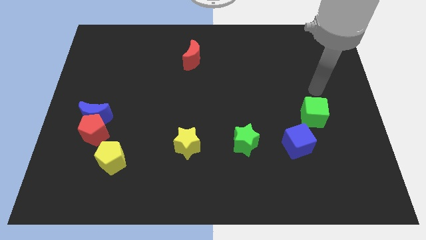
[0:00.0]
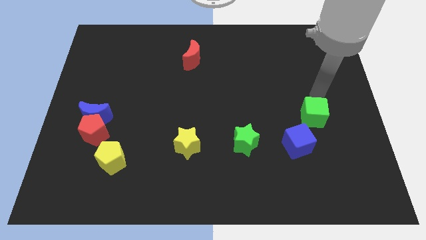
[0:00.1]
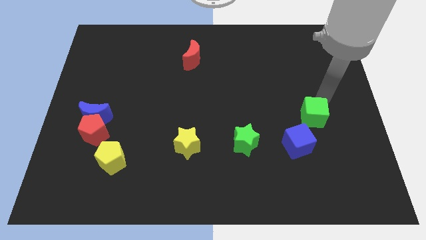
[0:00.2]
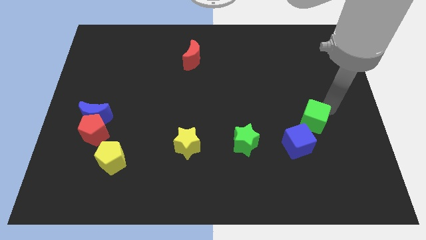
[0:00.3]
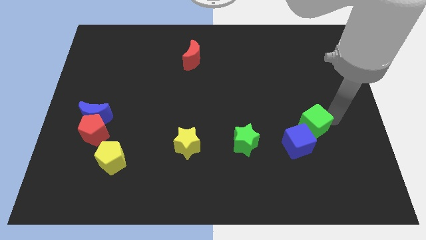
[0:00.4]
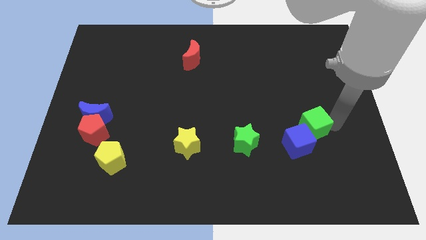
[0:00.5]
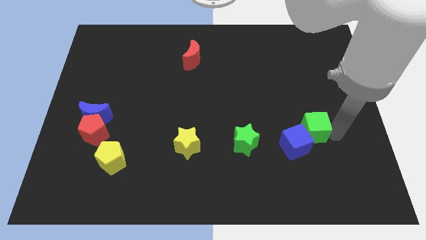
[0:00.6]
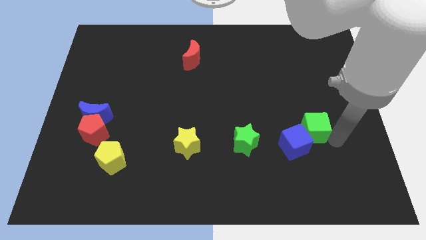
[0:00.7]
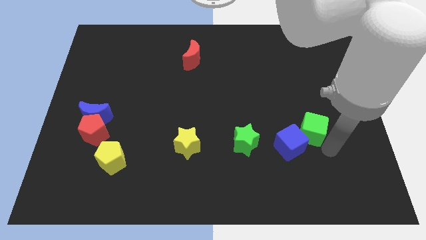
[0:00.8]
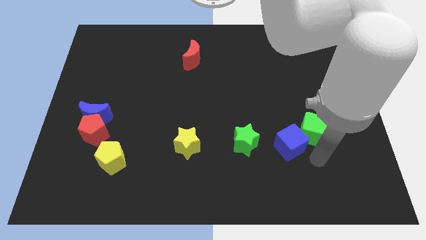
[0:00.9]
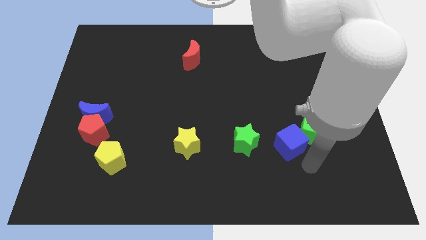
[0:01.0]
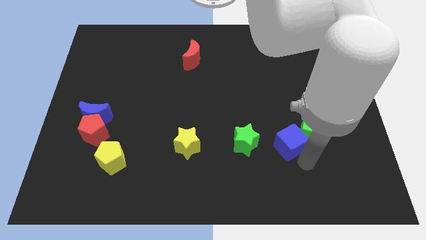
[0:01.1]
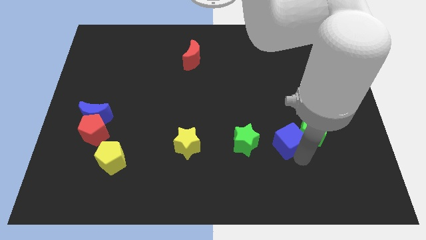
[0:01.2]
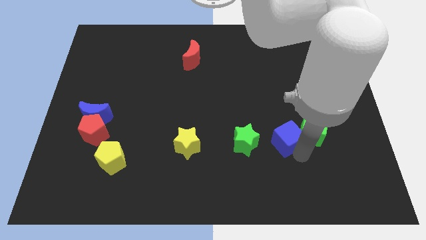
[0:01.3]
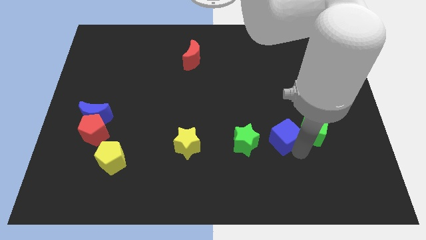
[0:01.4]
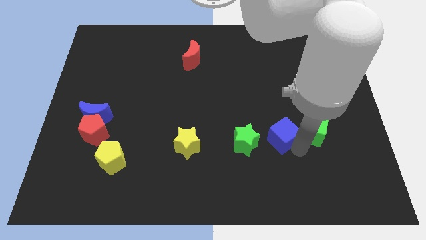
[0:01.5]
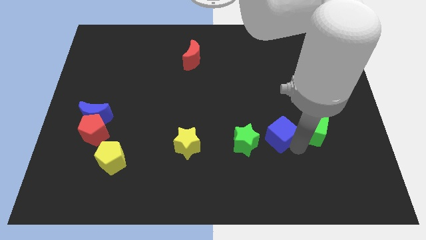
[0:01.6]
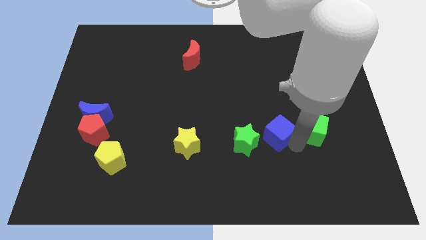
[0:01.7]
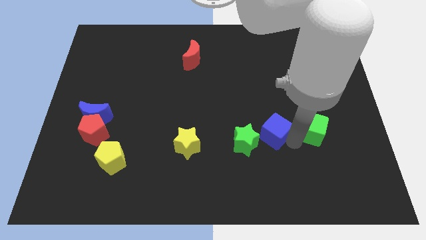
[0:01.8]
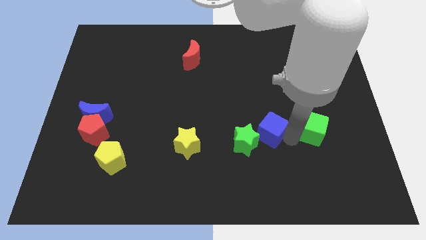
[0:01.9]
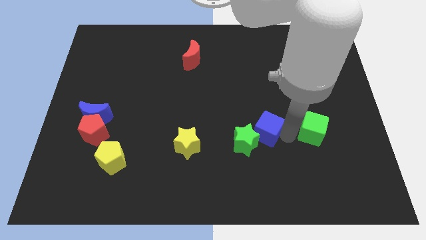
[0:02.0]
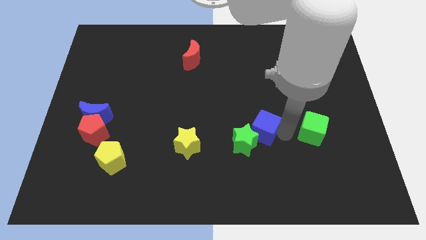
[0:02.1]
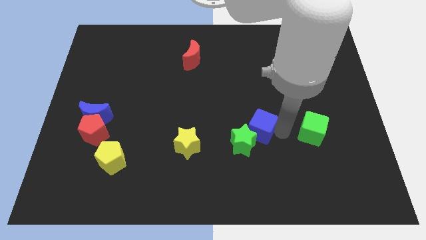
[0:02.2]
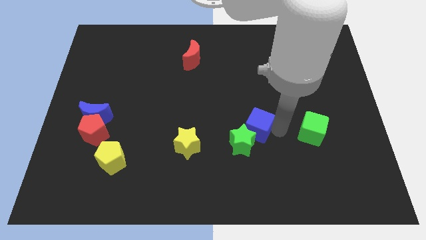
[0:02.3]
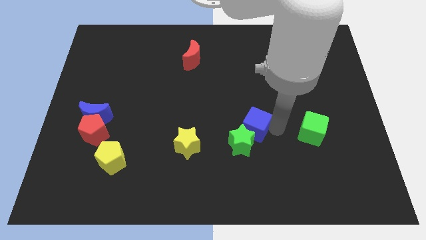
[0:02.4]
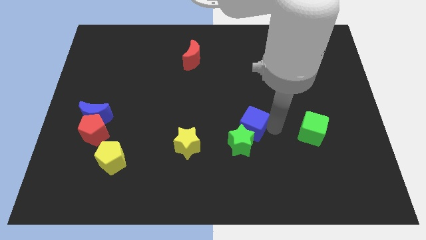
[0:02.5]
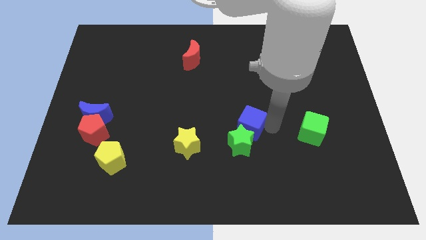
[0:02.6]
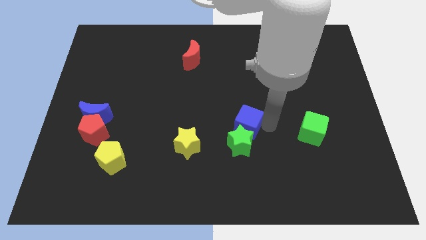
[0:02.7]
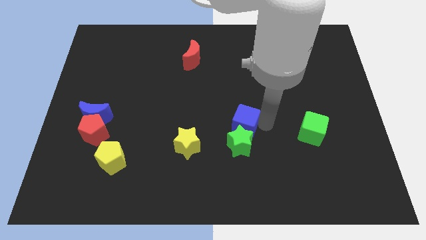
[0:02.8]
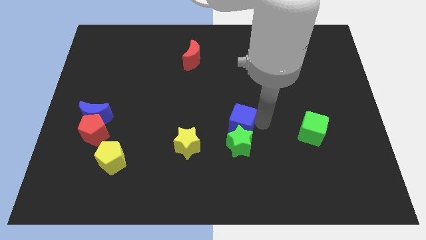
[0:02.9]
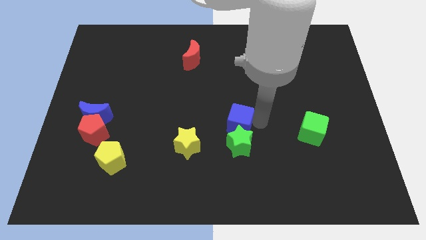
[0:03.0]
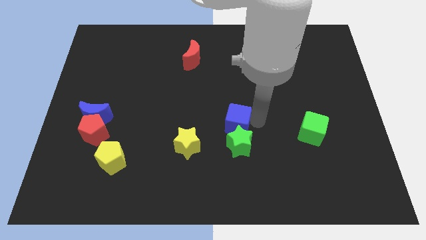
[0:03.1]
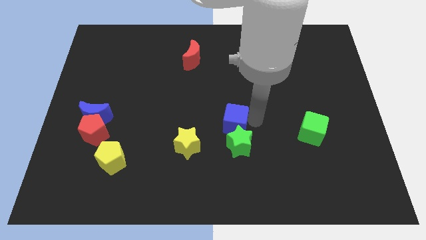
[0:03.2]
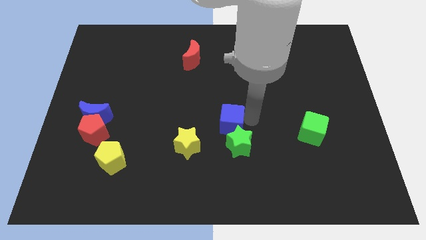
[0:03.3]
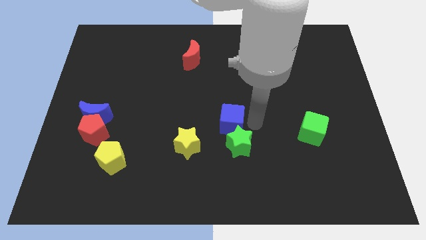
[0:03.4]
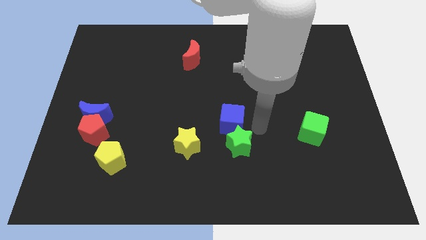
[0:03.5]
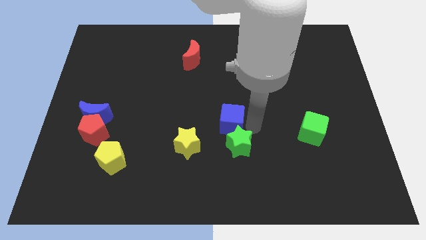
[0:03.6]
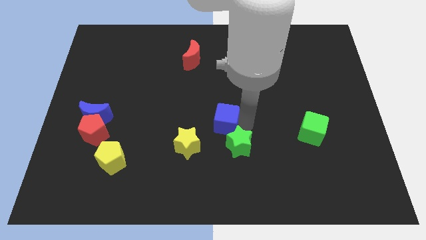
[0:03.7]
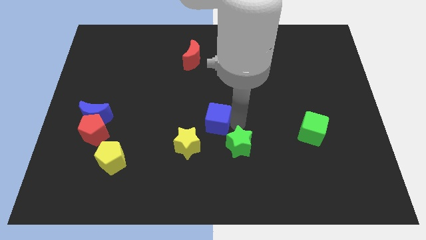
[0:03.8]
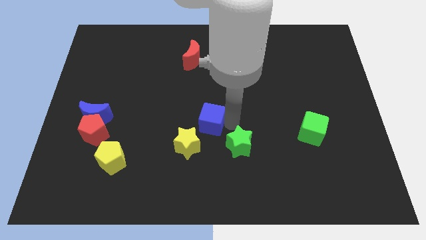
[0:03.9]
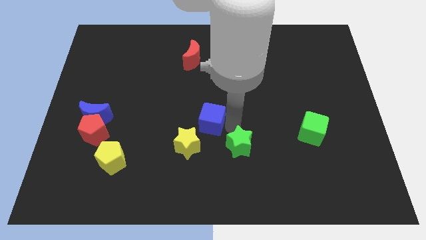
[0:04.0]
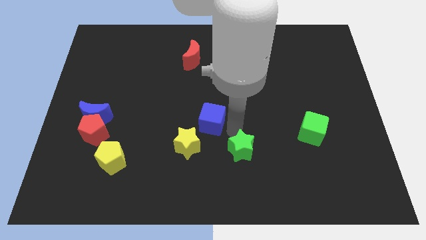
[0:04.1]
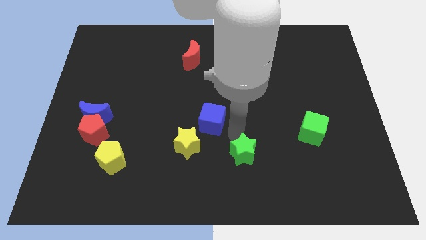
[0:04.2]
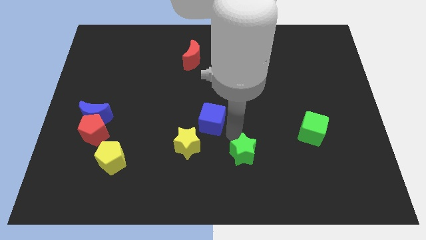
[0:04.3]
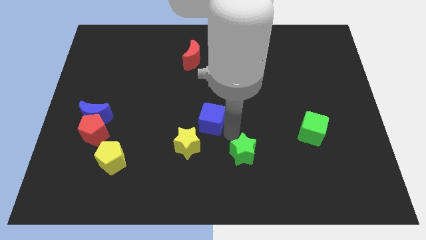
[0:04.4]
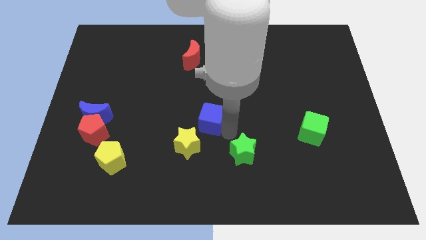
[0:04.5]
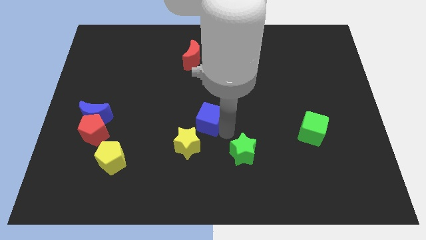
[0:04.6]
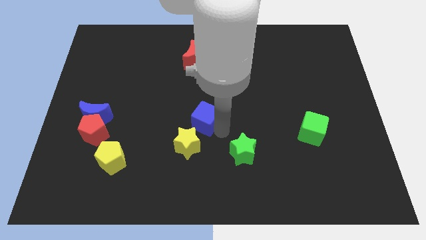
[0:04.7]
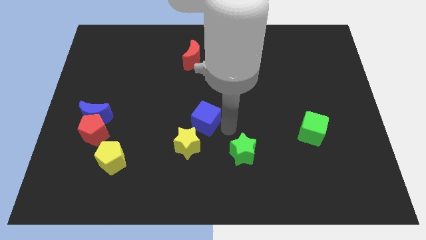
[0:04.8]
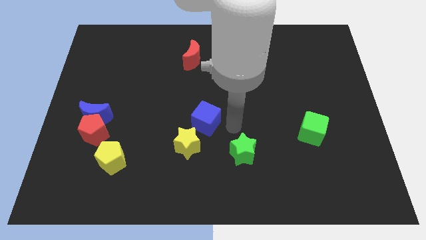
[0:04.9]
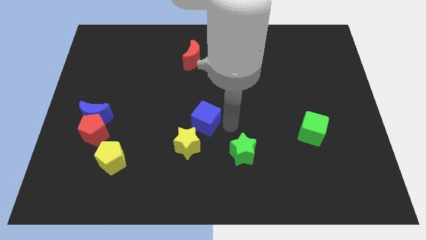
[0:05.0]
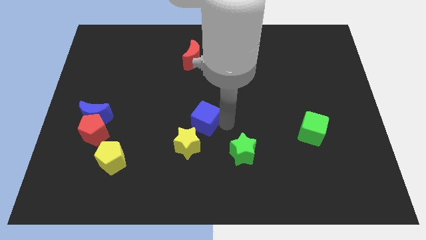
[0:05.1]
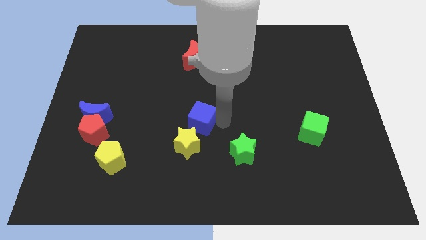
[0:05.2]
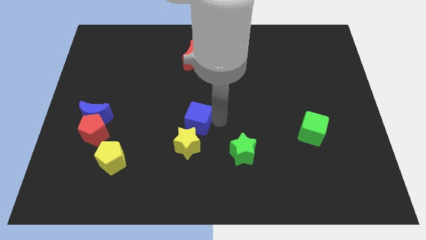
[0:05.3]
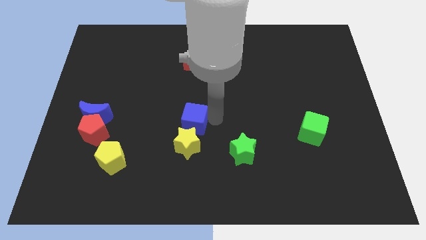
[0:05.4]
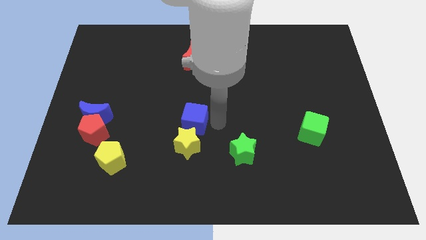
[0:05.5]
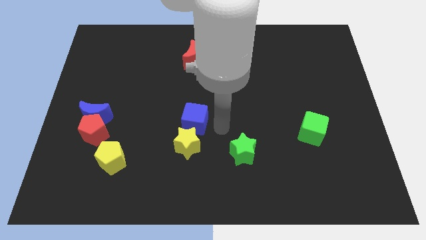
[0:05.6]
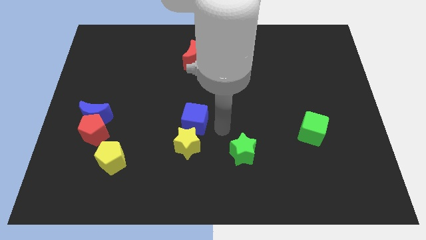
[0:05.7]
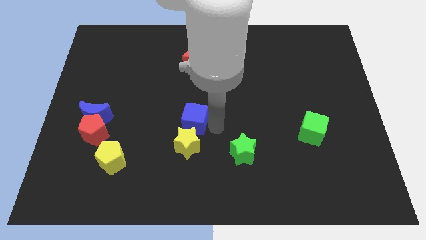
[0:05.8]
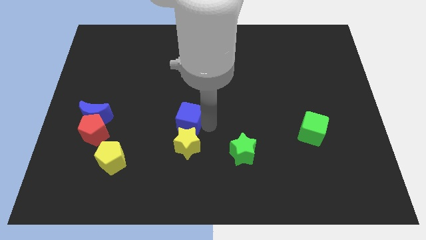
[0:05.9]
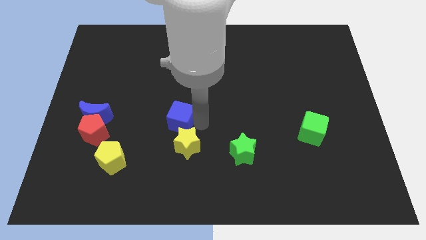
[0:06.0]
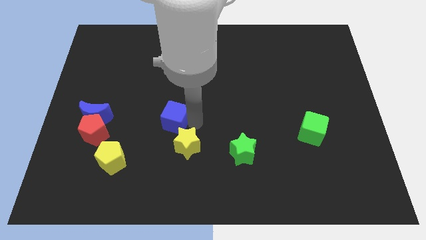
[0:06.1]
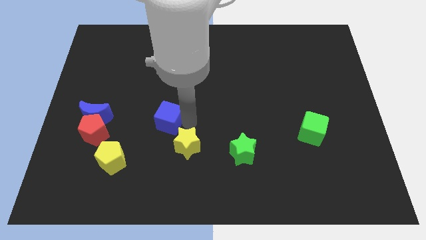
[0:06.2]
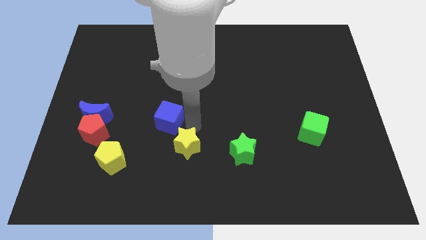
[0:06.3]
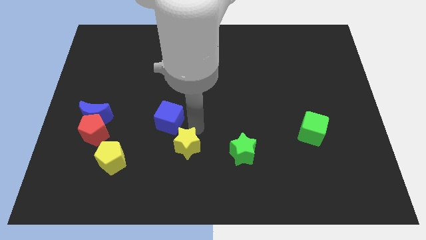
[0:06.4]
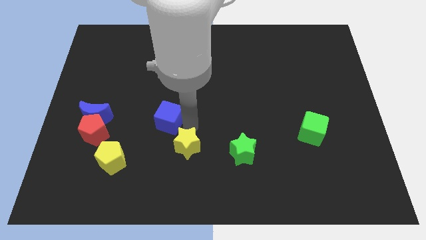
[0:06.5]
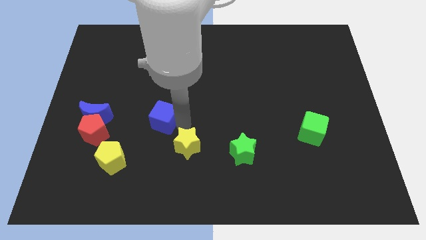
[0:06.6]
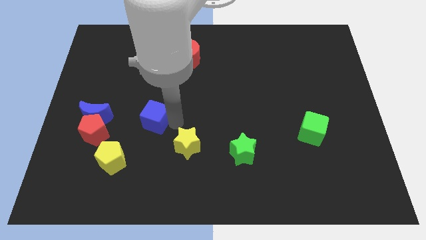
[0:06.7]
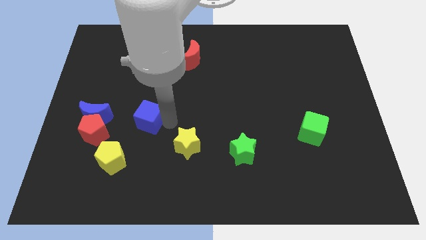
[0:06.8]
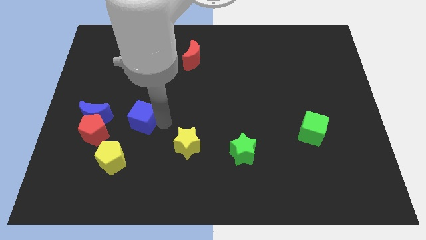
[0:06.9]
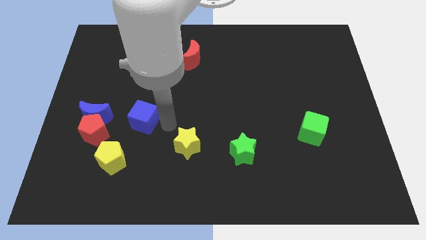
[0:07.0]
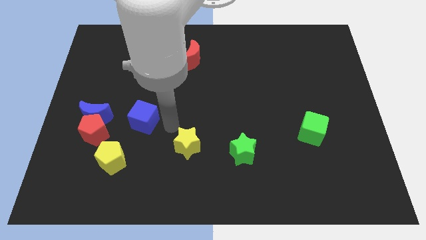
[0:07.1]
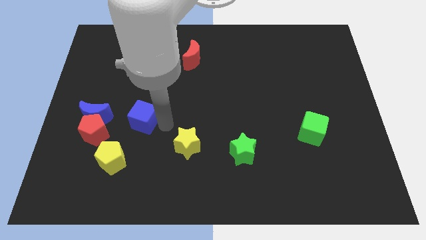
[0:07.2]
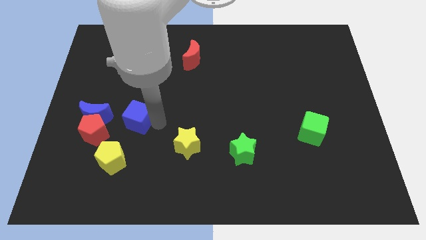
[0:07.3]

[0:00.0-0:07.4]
slide the blue cube to the top right of the red pentagon

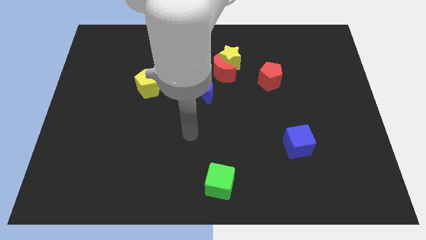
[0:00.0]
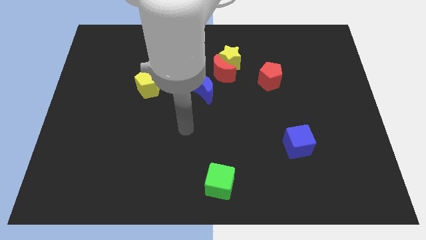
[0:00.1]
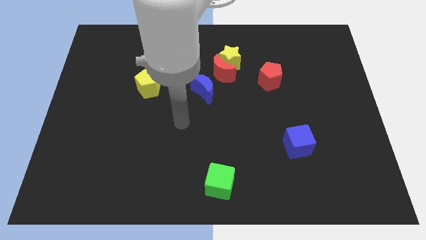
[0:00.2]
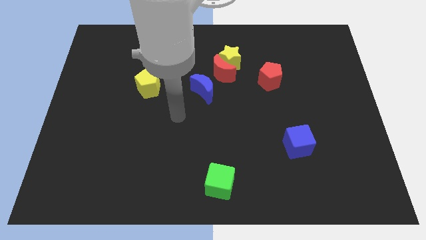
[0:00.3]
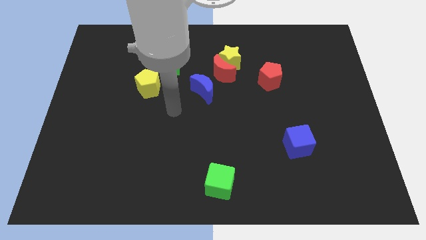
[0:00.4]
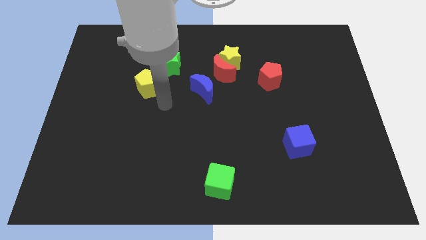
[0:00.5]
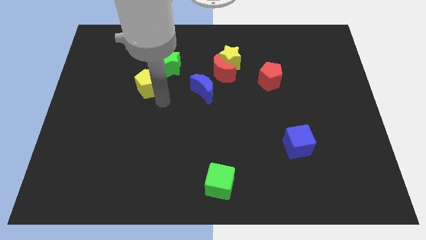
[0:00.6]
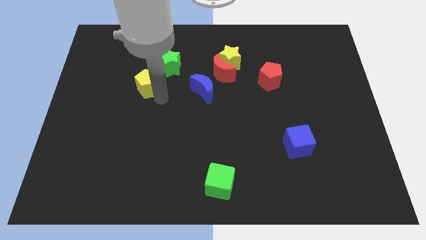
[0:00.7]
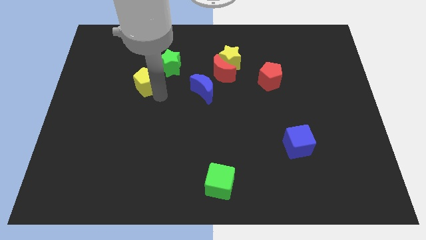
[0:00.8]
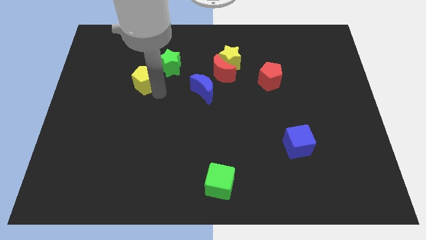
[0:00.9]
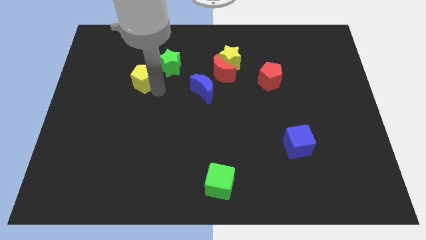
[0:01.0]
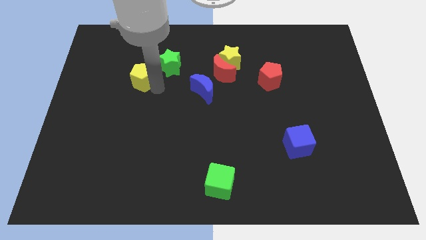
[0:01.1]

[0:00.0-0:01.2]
push the yellow pentagon just left of the green star
